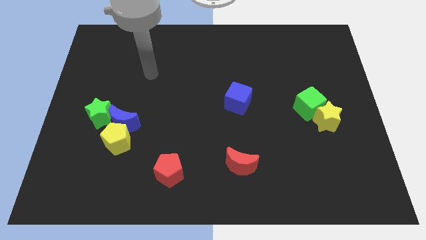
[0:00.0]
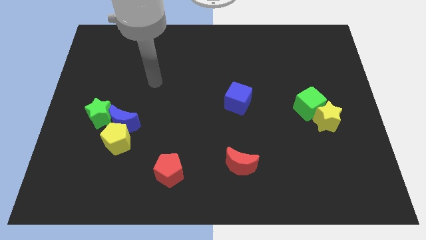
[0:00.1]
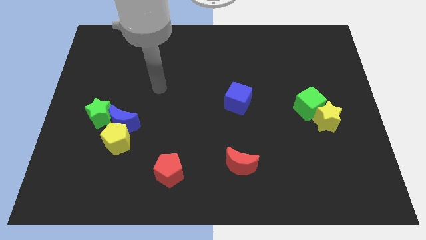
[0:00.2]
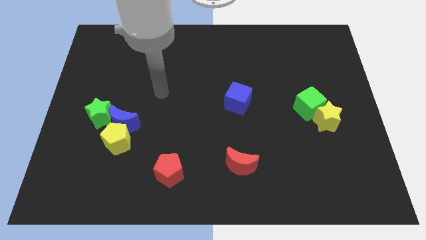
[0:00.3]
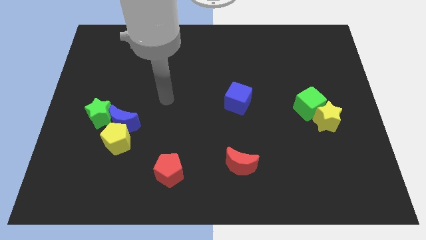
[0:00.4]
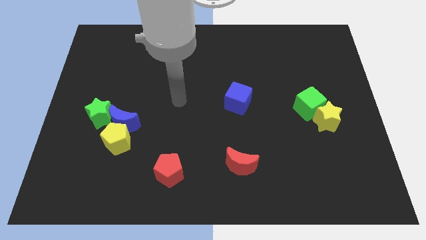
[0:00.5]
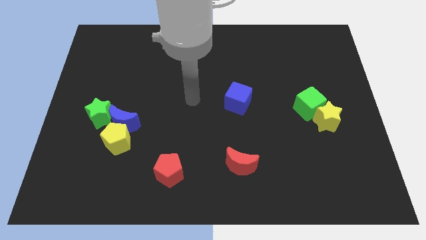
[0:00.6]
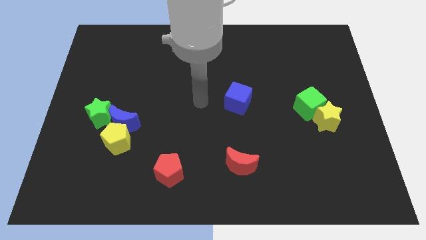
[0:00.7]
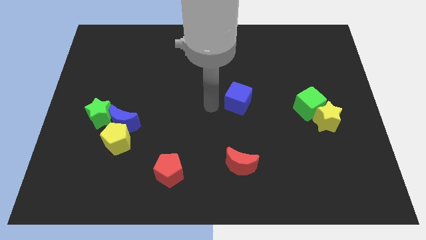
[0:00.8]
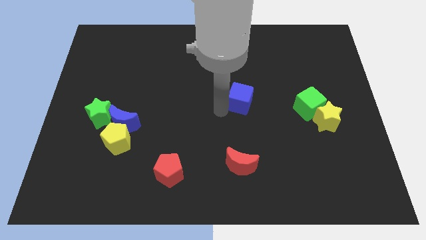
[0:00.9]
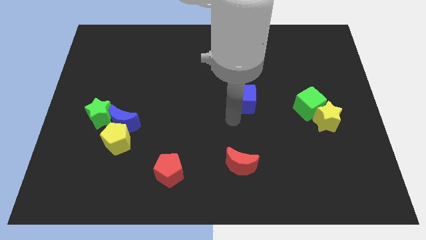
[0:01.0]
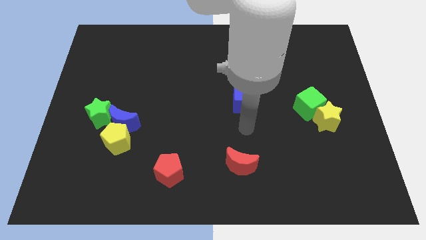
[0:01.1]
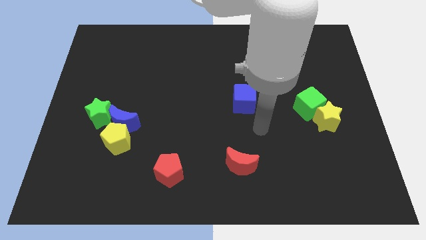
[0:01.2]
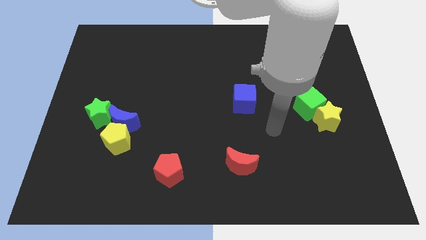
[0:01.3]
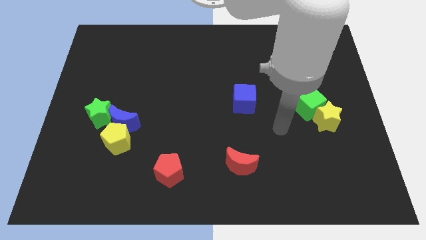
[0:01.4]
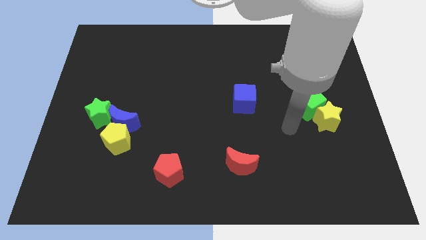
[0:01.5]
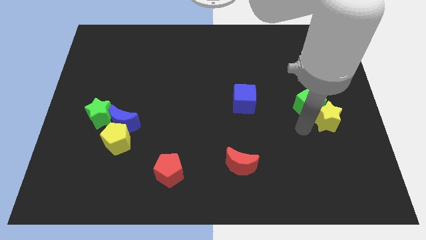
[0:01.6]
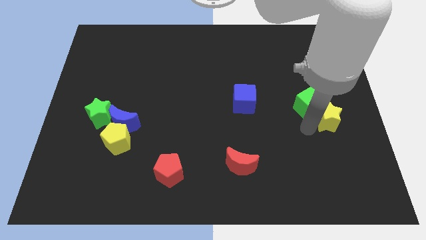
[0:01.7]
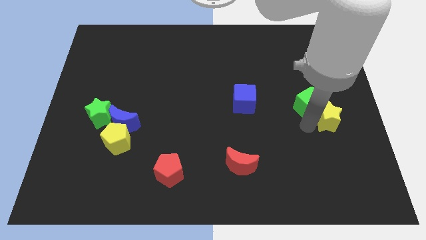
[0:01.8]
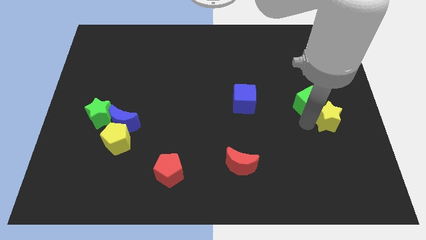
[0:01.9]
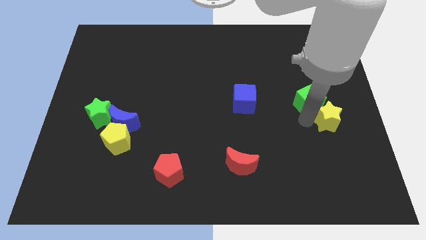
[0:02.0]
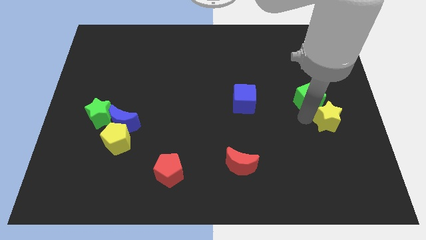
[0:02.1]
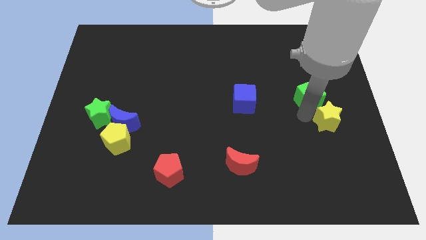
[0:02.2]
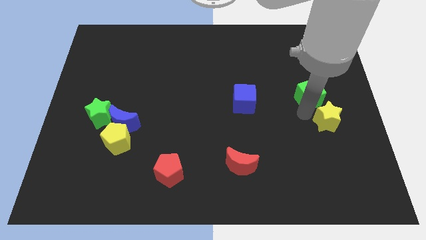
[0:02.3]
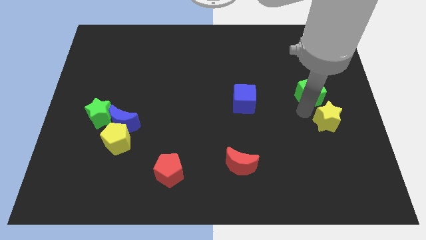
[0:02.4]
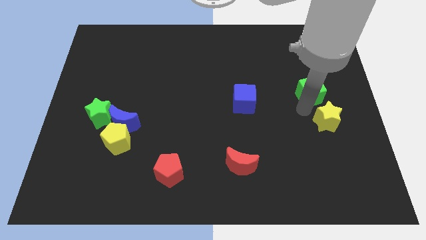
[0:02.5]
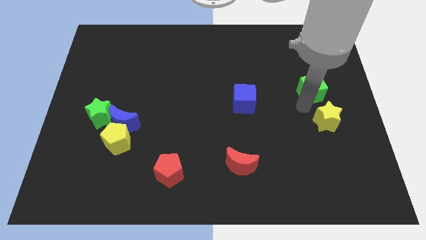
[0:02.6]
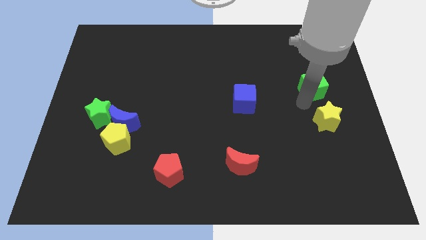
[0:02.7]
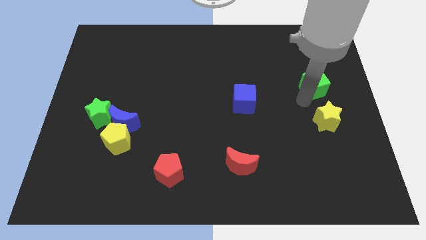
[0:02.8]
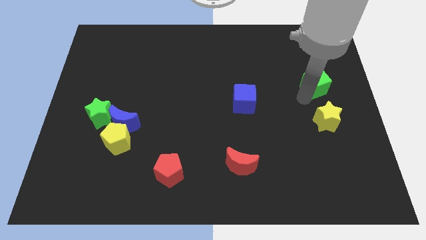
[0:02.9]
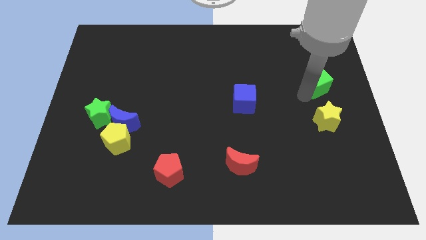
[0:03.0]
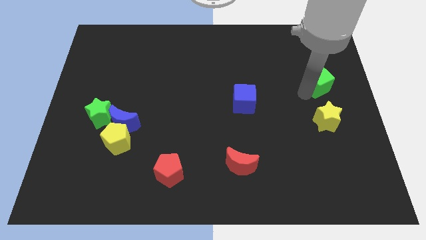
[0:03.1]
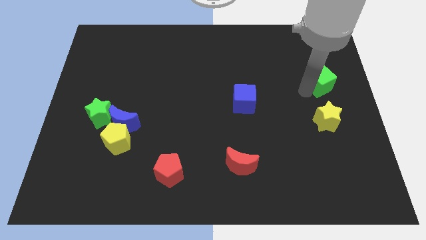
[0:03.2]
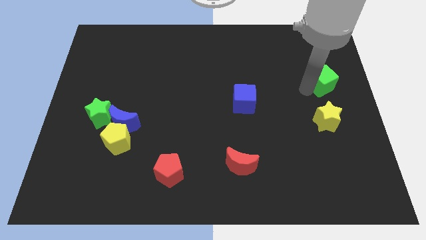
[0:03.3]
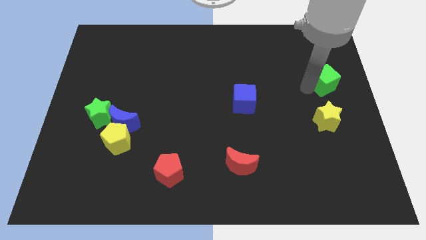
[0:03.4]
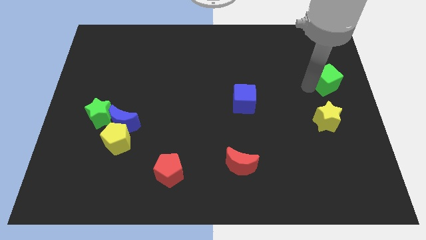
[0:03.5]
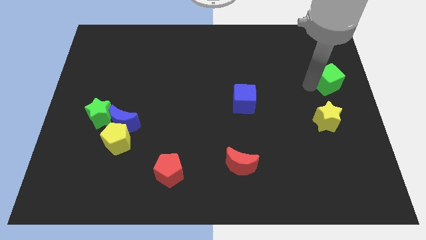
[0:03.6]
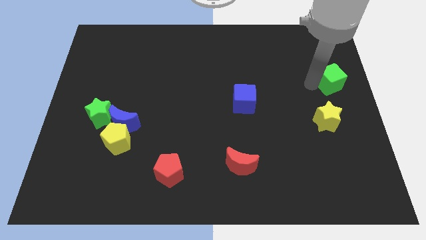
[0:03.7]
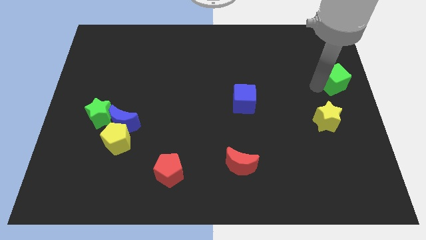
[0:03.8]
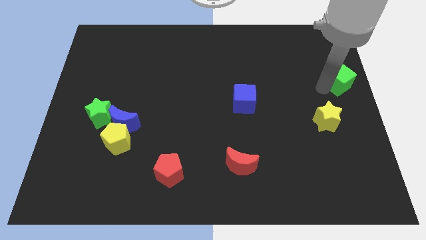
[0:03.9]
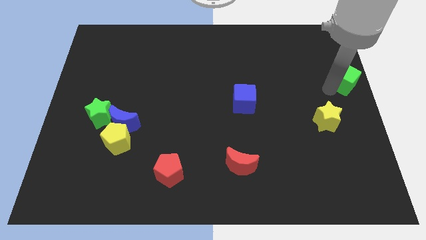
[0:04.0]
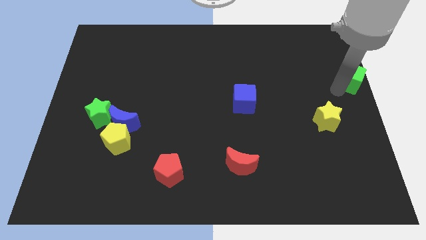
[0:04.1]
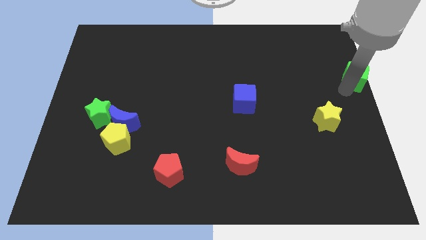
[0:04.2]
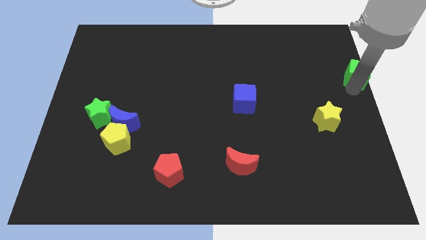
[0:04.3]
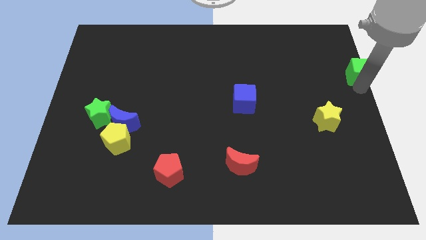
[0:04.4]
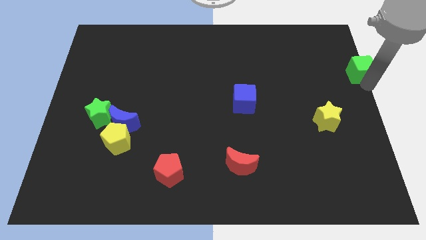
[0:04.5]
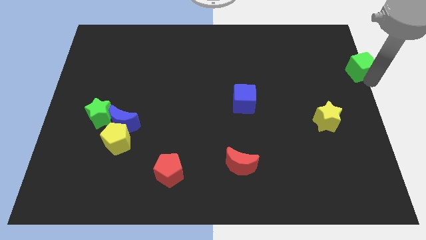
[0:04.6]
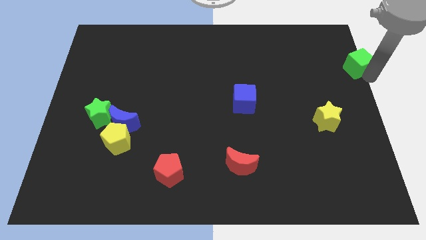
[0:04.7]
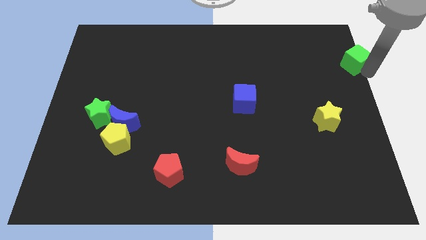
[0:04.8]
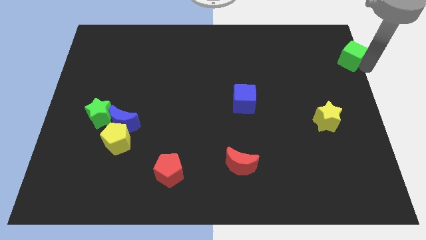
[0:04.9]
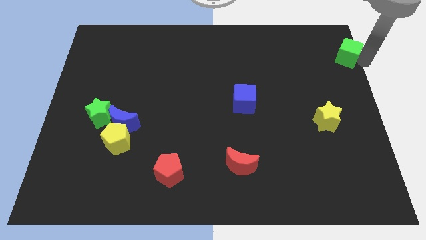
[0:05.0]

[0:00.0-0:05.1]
put the green cube to the top right of the board

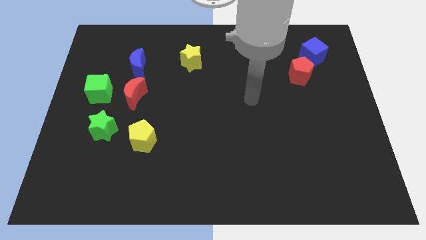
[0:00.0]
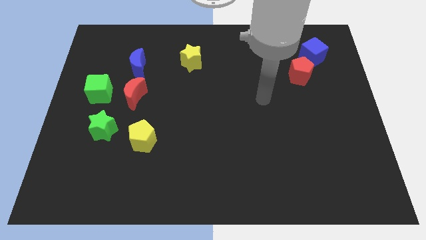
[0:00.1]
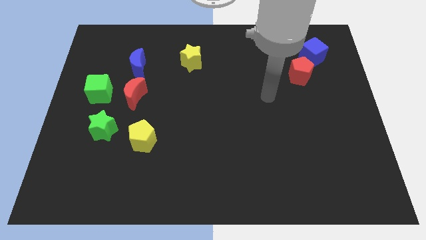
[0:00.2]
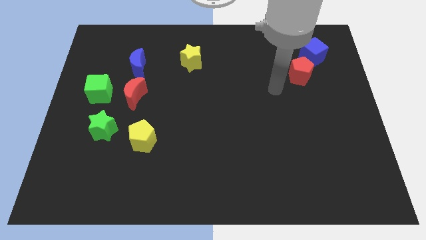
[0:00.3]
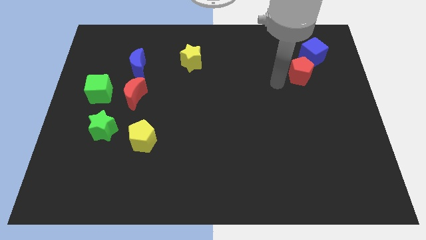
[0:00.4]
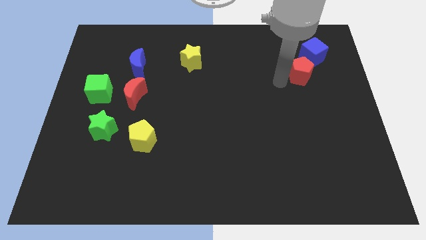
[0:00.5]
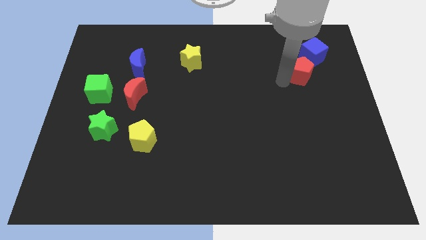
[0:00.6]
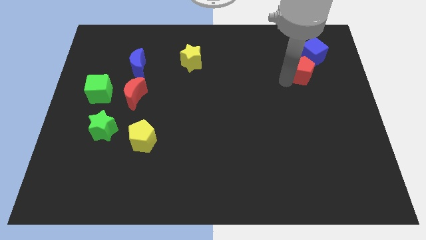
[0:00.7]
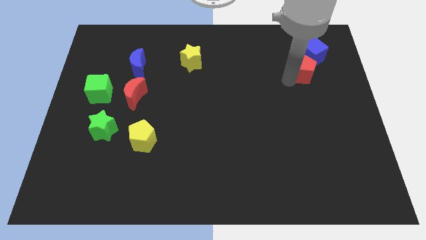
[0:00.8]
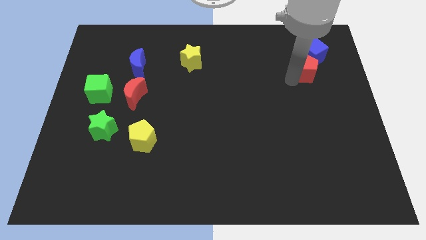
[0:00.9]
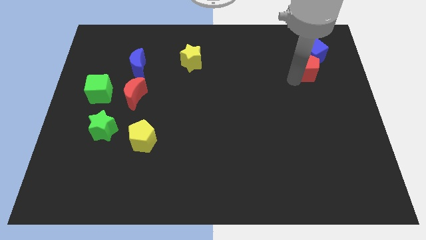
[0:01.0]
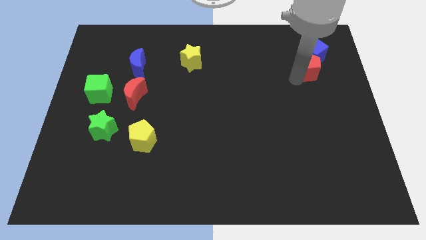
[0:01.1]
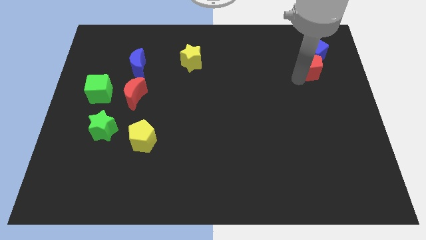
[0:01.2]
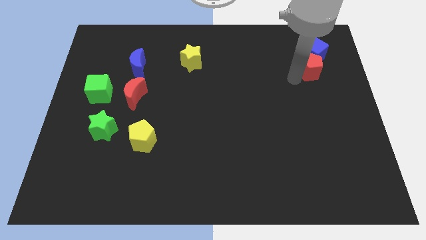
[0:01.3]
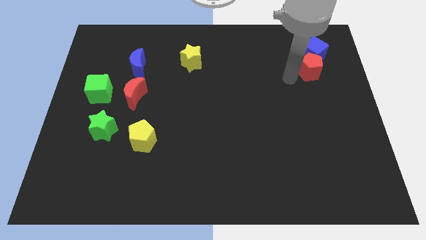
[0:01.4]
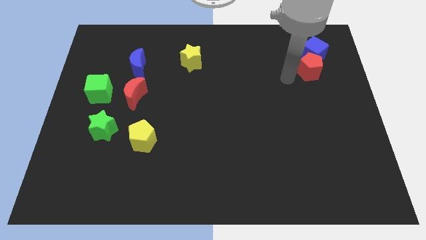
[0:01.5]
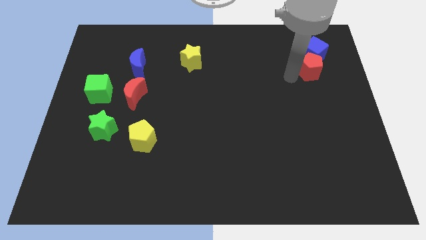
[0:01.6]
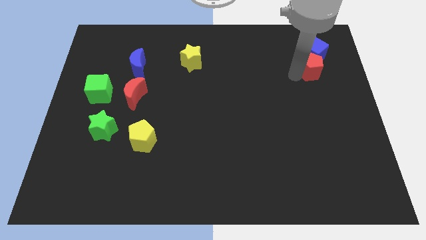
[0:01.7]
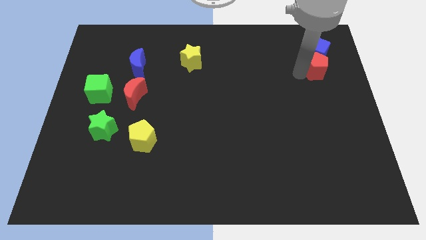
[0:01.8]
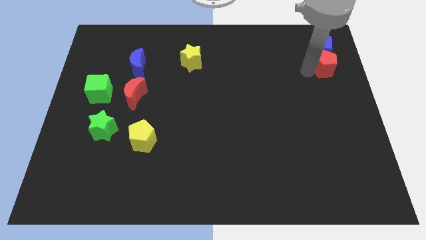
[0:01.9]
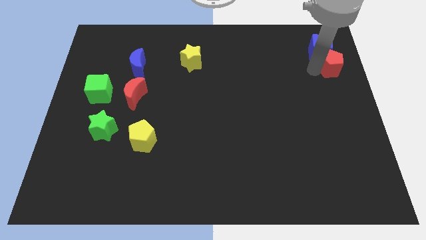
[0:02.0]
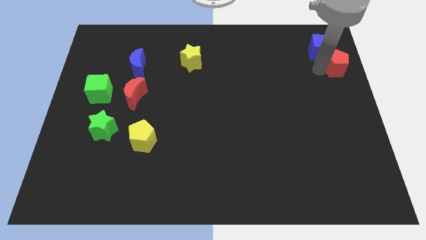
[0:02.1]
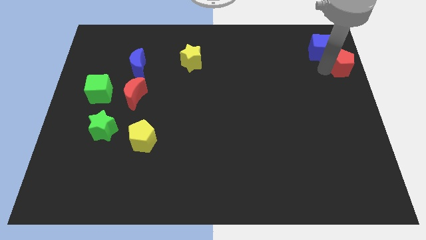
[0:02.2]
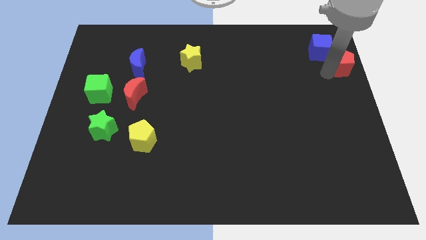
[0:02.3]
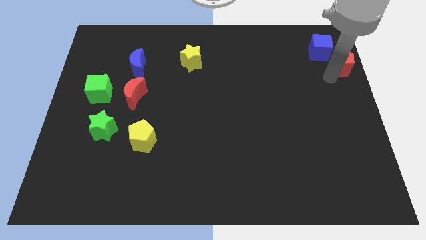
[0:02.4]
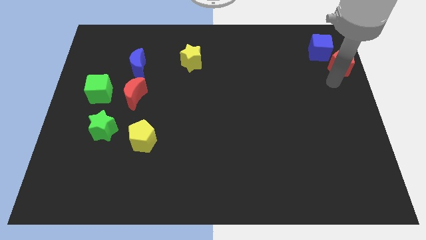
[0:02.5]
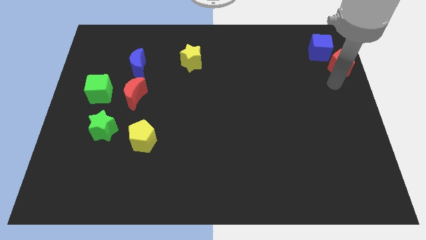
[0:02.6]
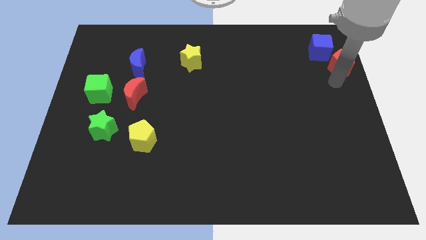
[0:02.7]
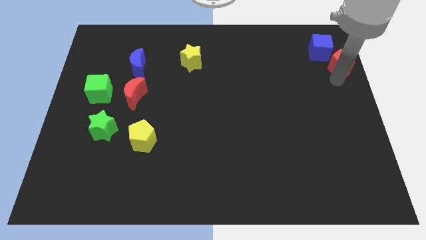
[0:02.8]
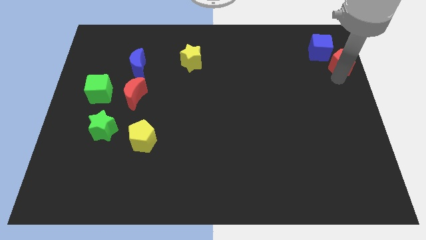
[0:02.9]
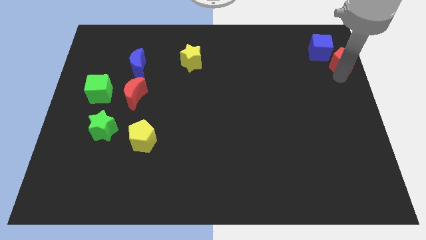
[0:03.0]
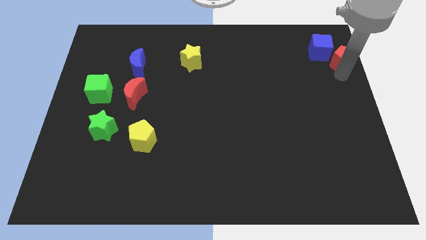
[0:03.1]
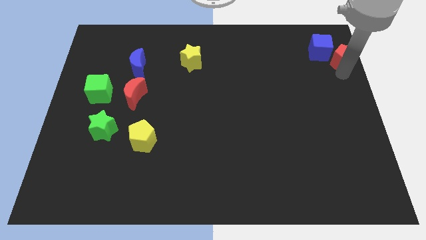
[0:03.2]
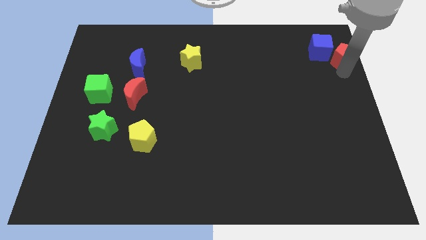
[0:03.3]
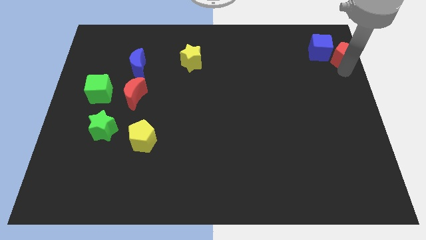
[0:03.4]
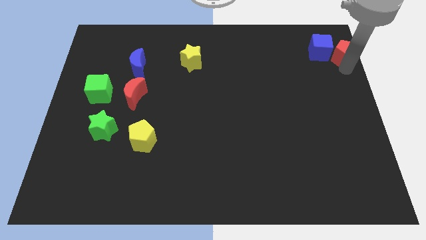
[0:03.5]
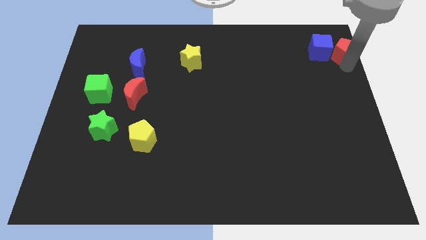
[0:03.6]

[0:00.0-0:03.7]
push the red pentagon to the top right corner
